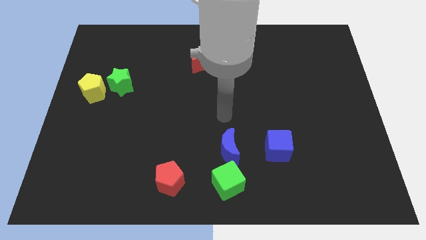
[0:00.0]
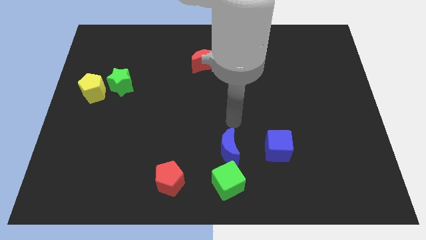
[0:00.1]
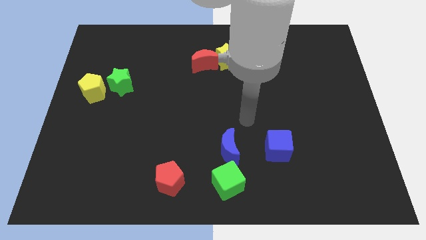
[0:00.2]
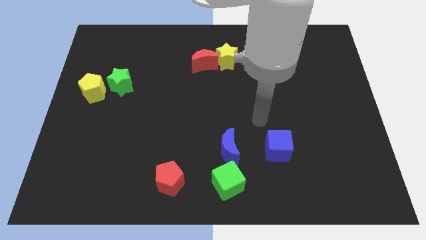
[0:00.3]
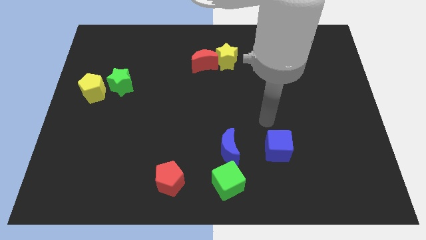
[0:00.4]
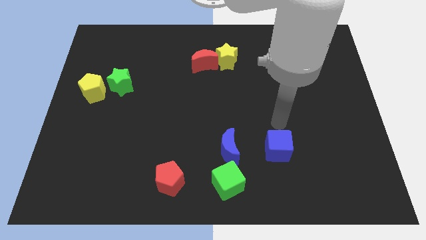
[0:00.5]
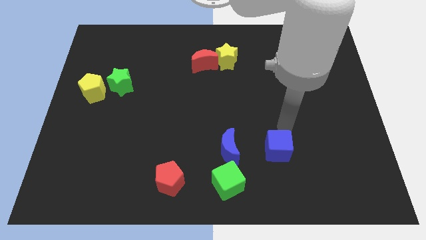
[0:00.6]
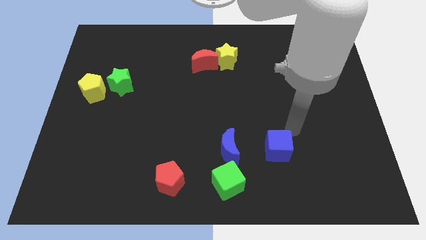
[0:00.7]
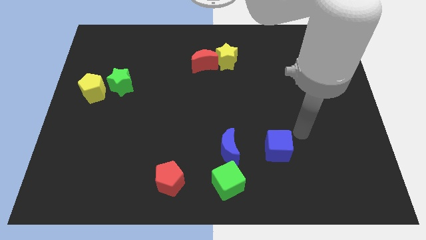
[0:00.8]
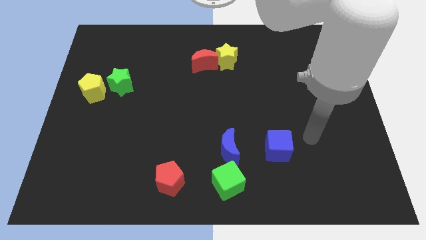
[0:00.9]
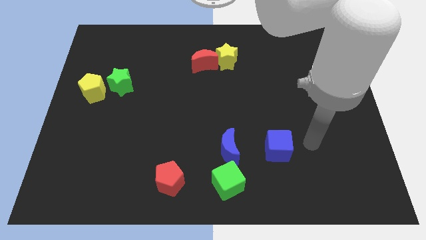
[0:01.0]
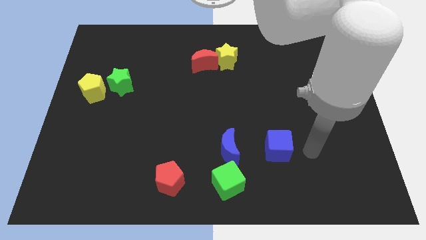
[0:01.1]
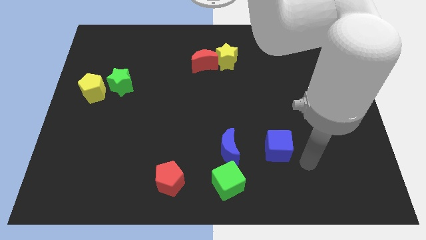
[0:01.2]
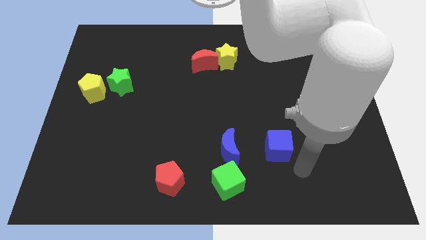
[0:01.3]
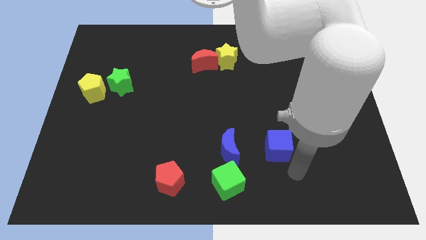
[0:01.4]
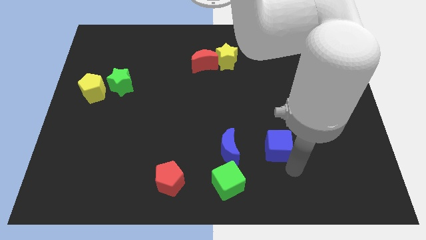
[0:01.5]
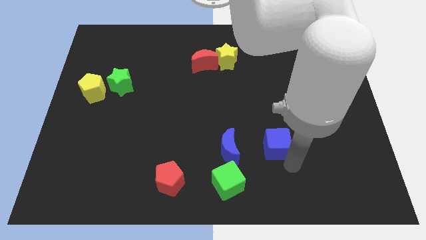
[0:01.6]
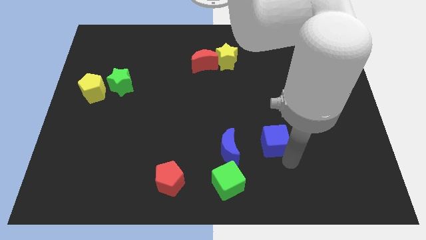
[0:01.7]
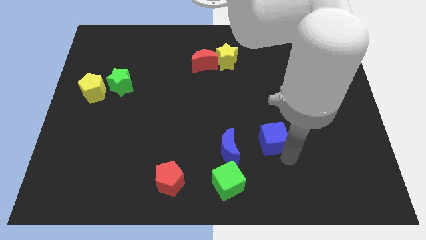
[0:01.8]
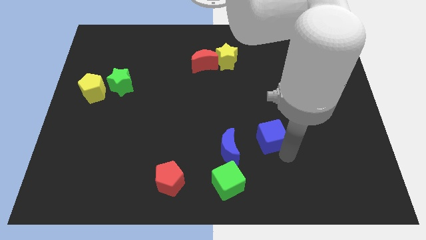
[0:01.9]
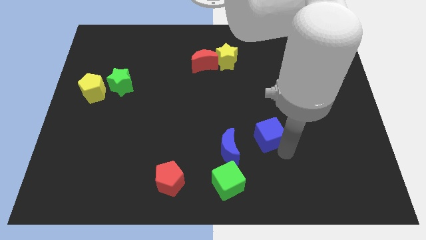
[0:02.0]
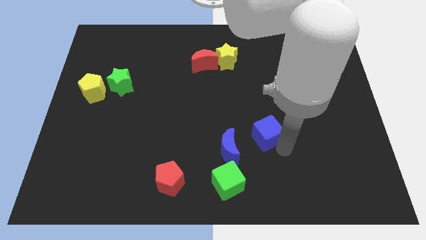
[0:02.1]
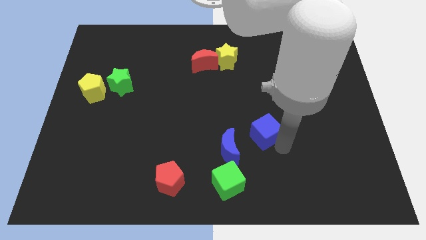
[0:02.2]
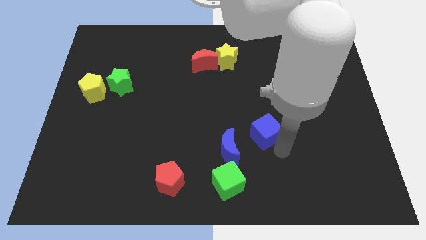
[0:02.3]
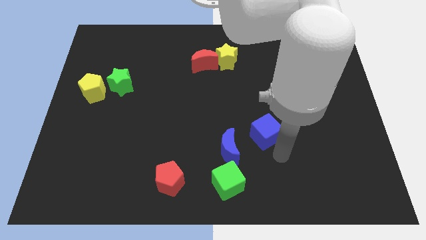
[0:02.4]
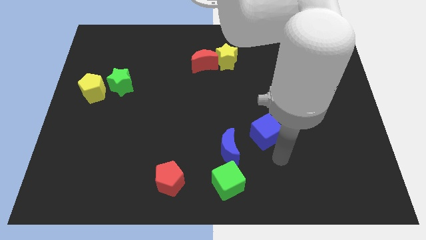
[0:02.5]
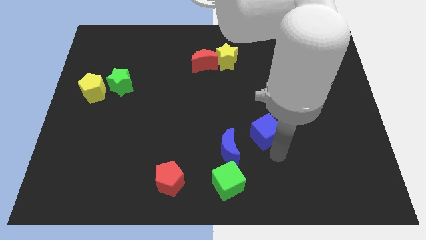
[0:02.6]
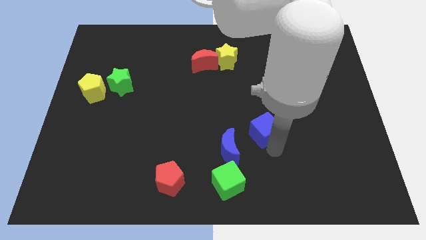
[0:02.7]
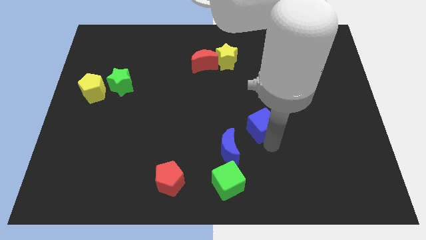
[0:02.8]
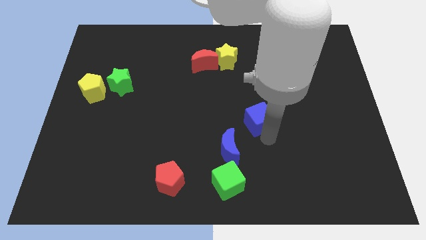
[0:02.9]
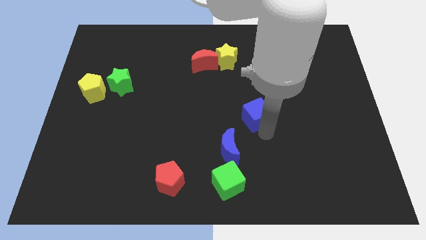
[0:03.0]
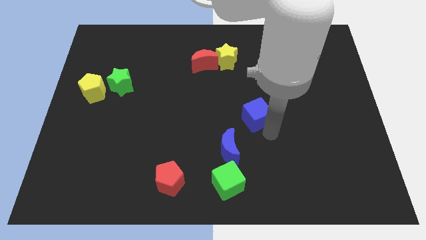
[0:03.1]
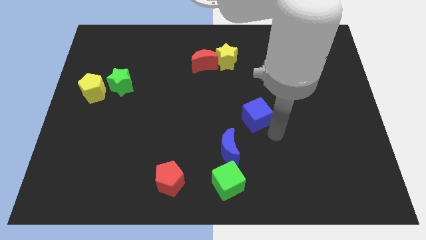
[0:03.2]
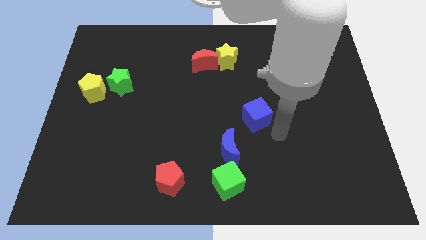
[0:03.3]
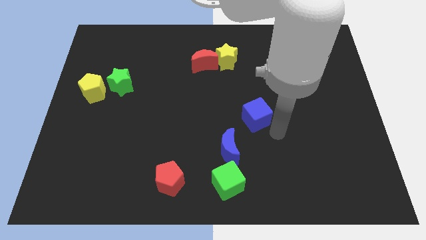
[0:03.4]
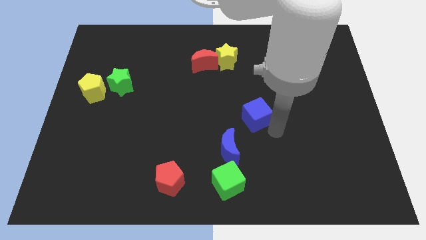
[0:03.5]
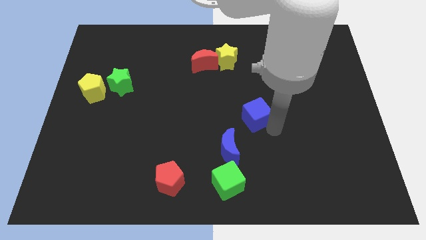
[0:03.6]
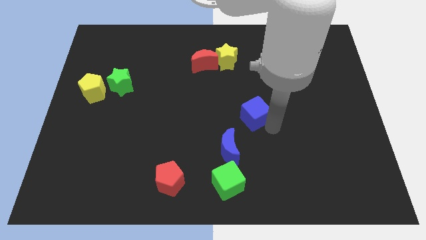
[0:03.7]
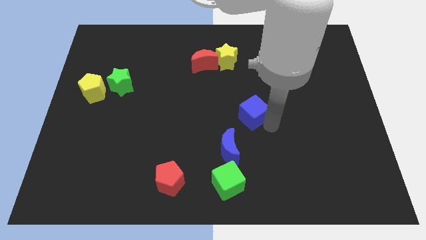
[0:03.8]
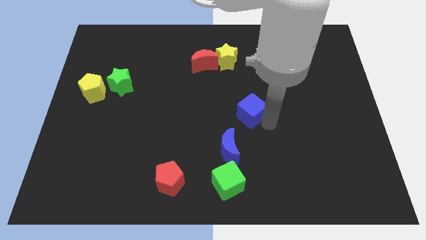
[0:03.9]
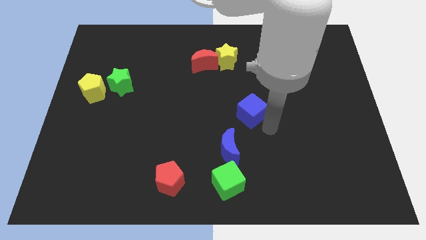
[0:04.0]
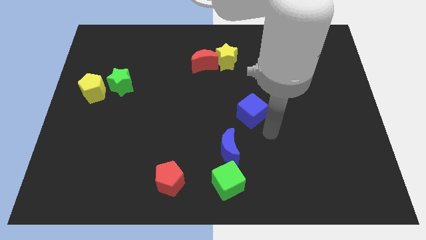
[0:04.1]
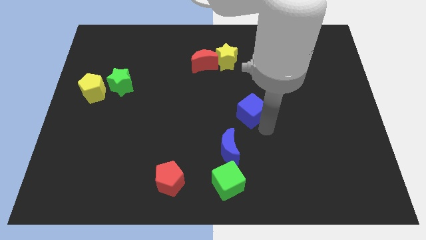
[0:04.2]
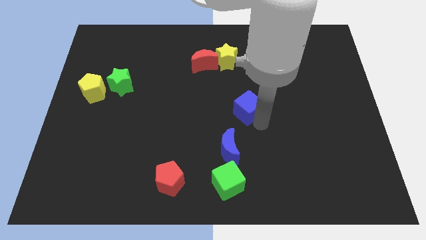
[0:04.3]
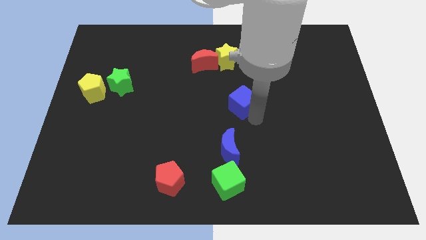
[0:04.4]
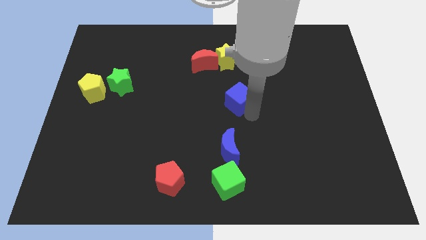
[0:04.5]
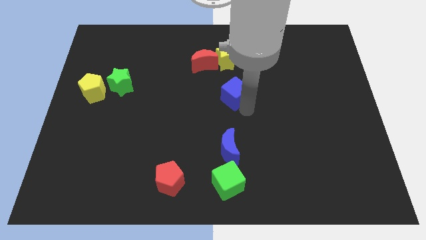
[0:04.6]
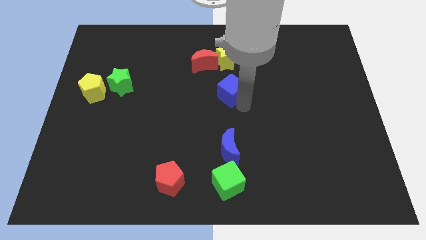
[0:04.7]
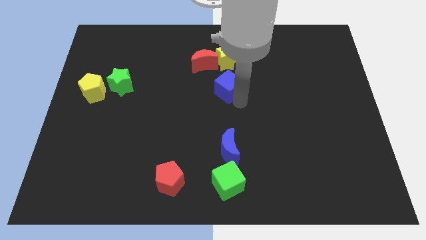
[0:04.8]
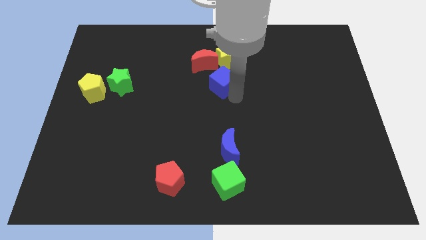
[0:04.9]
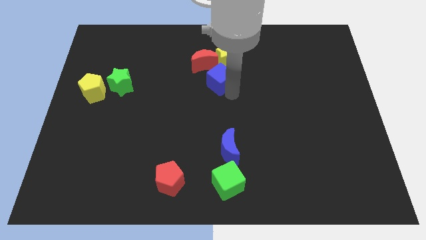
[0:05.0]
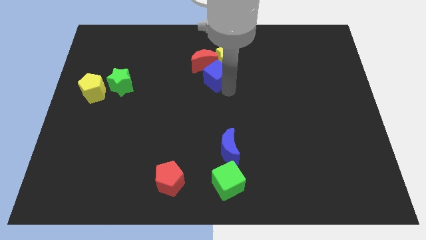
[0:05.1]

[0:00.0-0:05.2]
slide the blue cube to the red moon

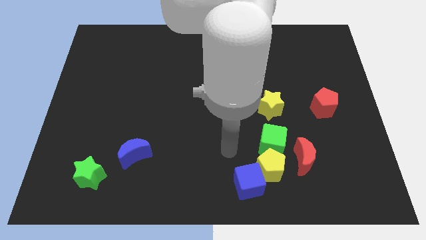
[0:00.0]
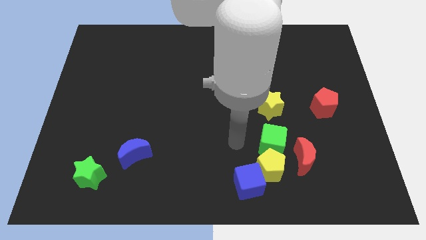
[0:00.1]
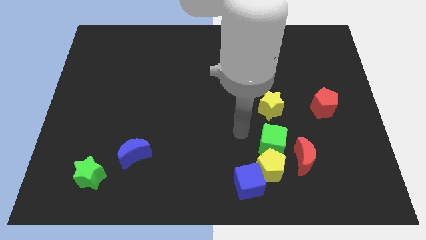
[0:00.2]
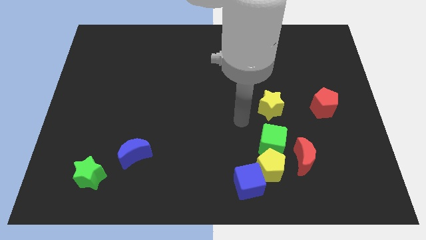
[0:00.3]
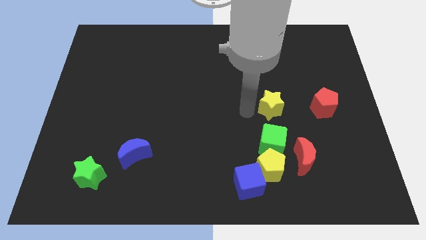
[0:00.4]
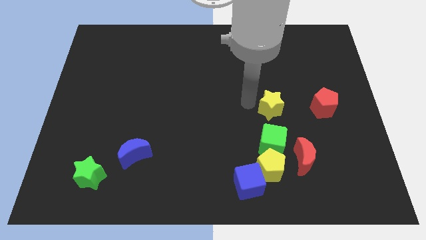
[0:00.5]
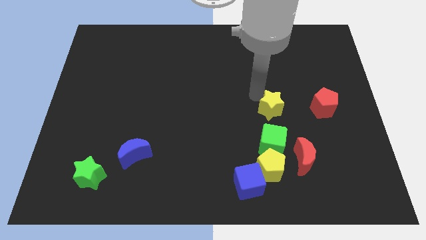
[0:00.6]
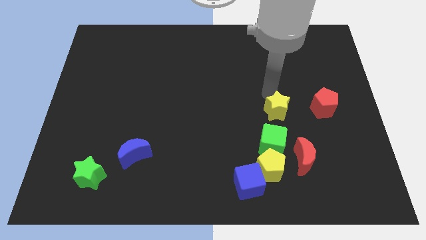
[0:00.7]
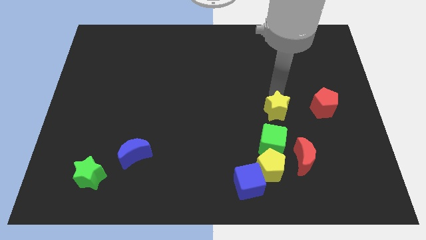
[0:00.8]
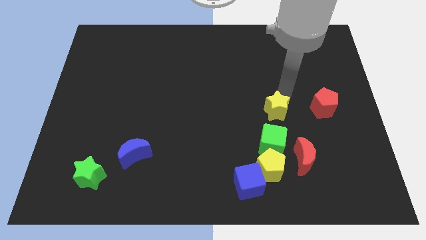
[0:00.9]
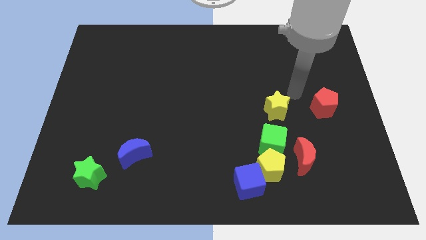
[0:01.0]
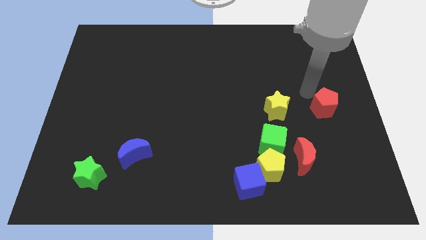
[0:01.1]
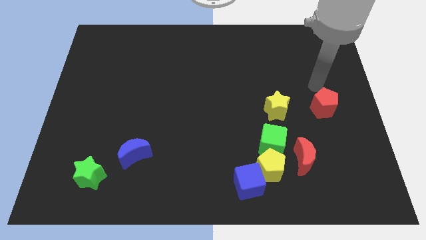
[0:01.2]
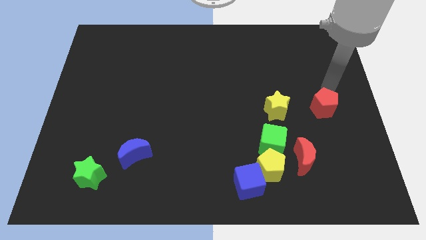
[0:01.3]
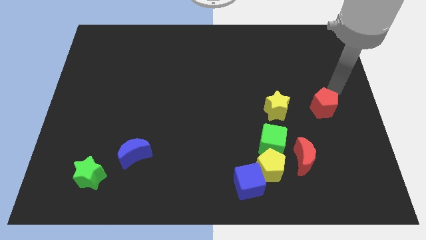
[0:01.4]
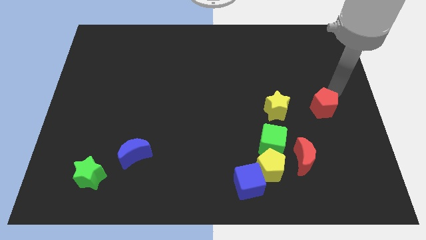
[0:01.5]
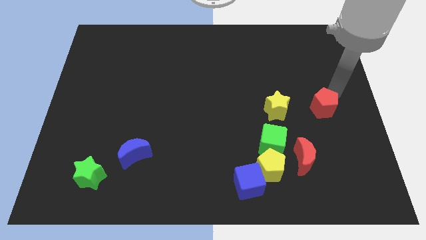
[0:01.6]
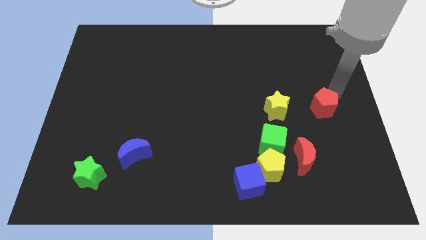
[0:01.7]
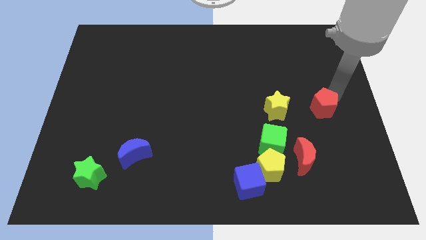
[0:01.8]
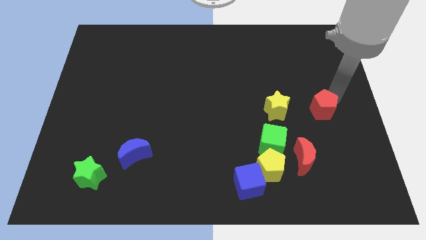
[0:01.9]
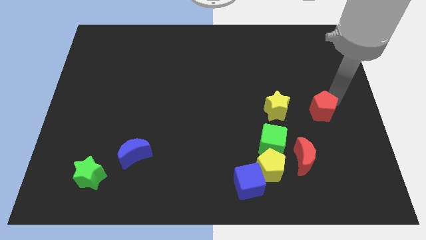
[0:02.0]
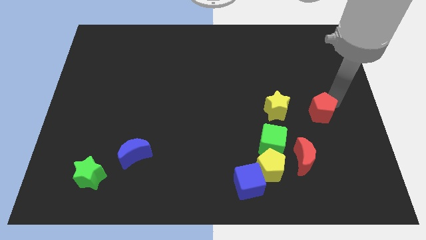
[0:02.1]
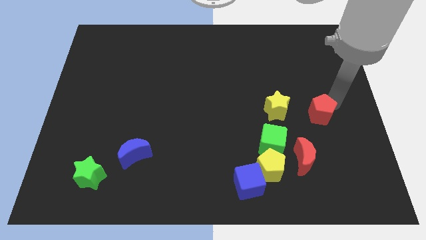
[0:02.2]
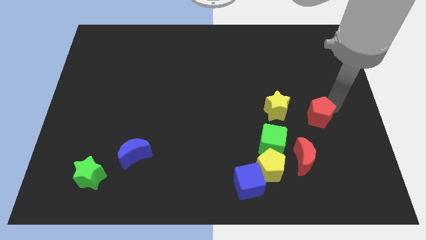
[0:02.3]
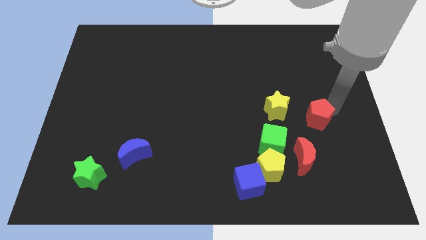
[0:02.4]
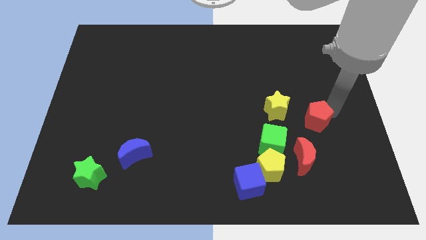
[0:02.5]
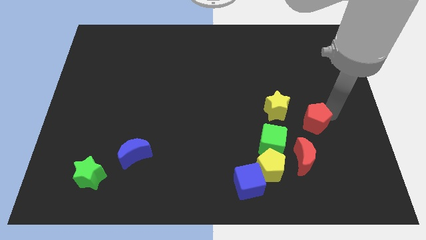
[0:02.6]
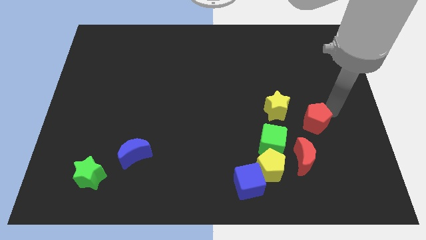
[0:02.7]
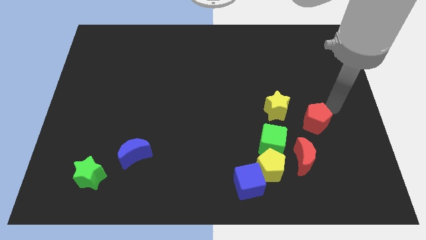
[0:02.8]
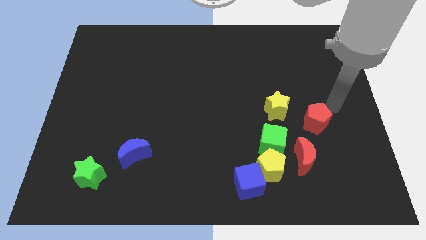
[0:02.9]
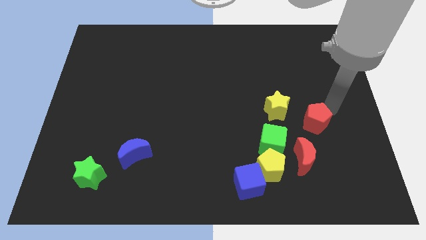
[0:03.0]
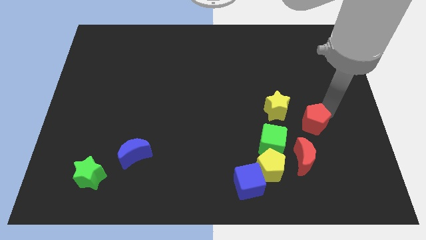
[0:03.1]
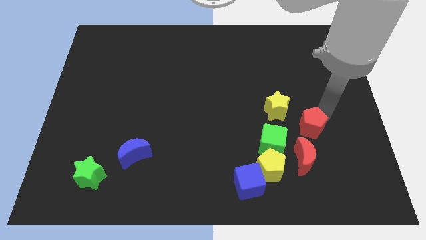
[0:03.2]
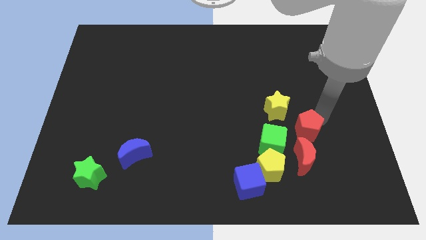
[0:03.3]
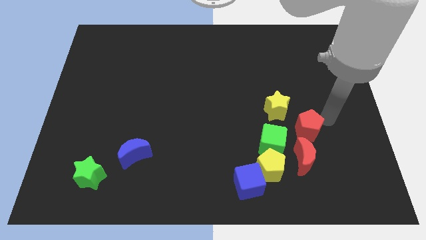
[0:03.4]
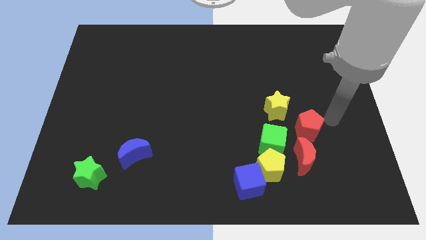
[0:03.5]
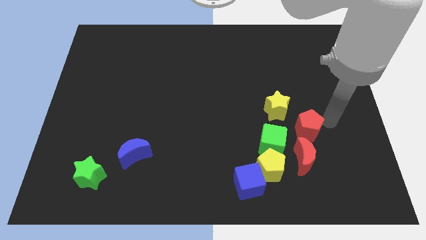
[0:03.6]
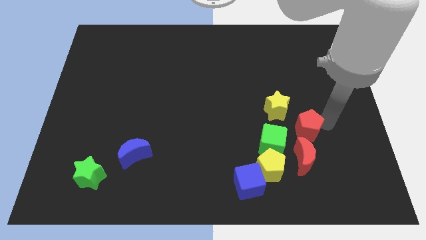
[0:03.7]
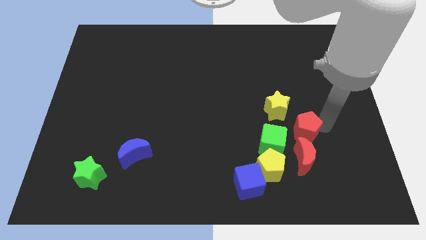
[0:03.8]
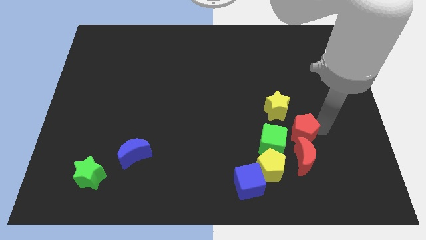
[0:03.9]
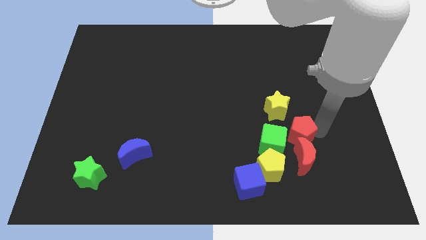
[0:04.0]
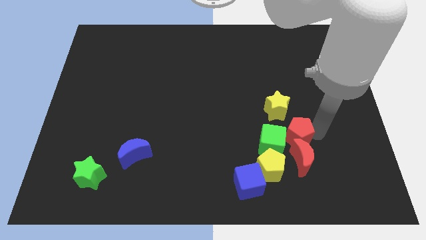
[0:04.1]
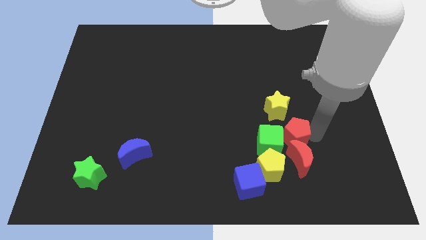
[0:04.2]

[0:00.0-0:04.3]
slide the red pentagon next to the green cube
